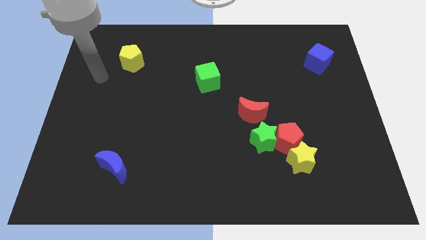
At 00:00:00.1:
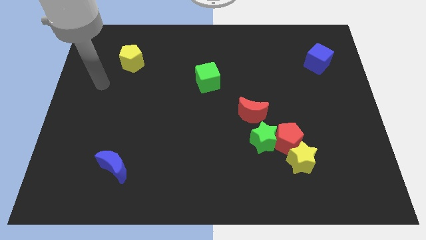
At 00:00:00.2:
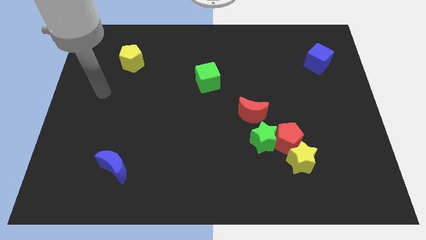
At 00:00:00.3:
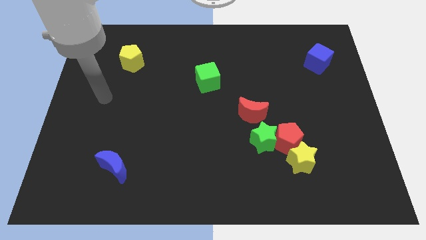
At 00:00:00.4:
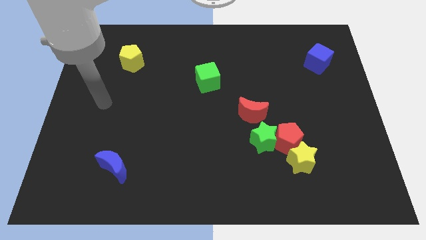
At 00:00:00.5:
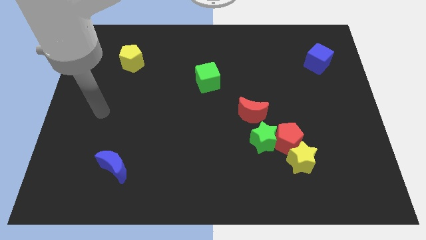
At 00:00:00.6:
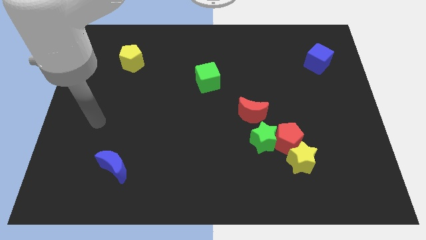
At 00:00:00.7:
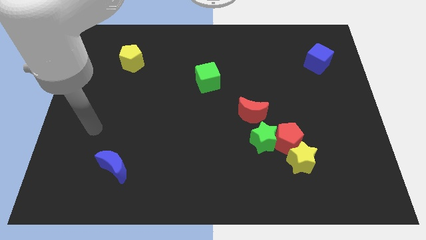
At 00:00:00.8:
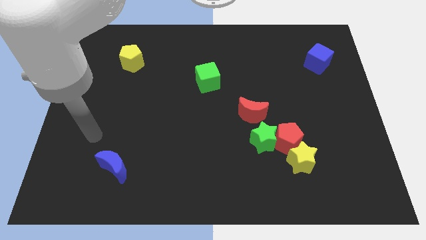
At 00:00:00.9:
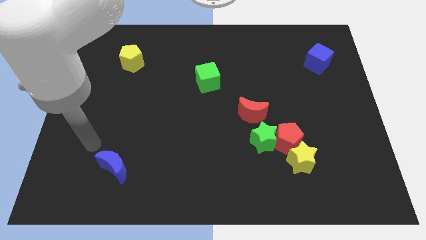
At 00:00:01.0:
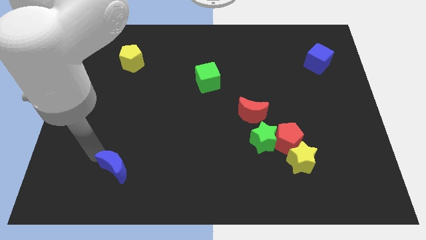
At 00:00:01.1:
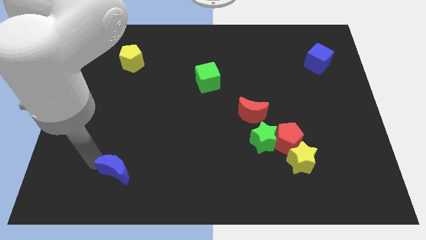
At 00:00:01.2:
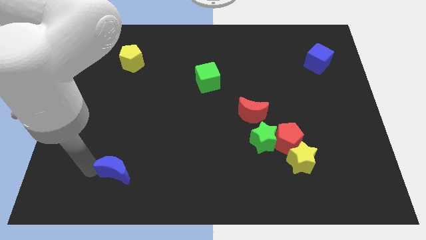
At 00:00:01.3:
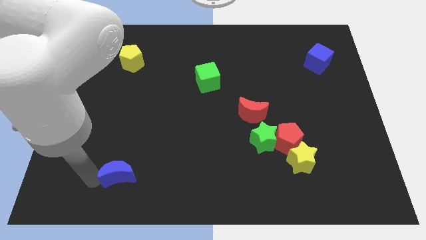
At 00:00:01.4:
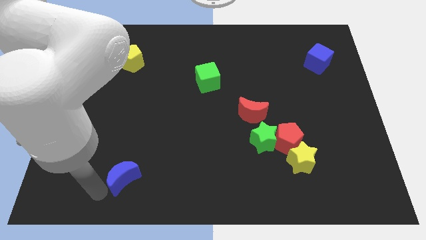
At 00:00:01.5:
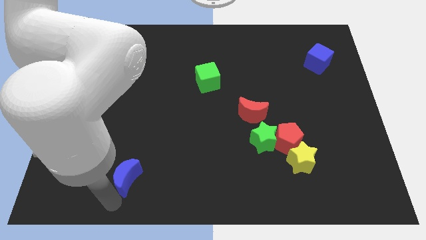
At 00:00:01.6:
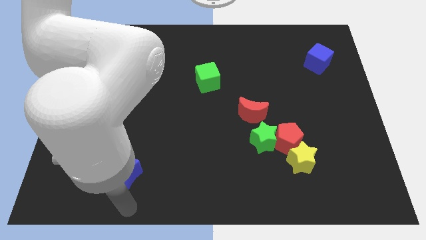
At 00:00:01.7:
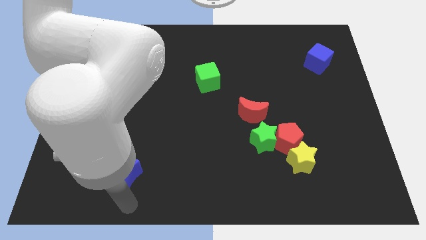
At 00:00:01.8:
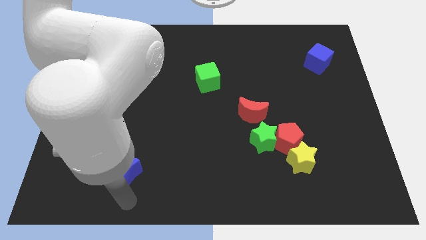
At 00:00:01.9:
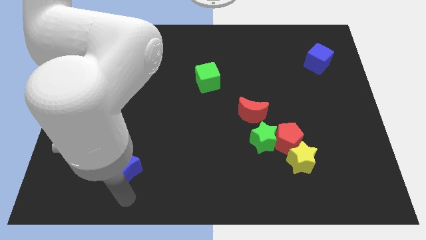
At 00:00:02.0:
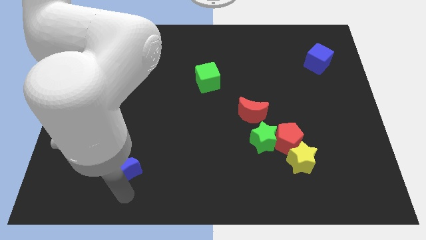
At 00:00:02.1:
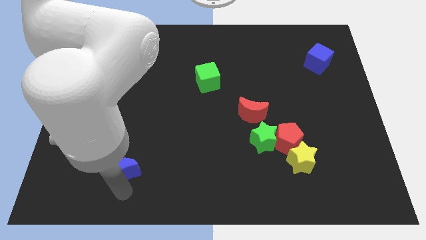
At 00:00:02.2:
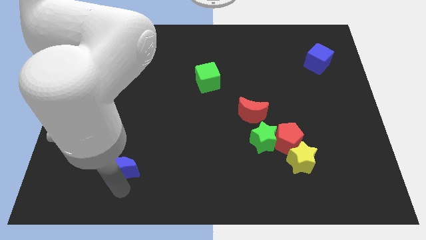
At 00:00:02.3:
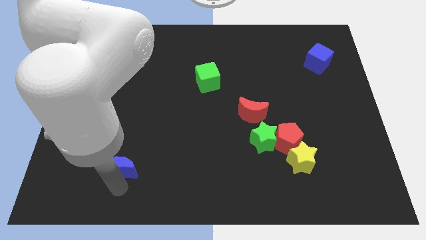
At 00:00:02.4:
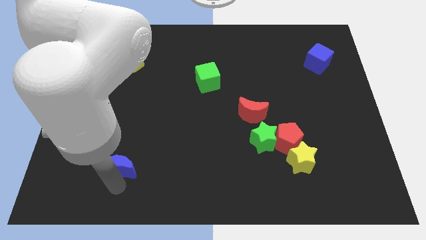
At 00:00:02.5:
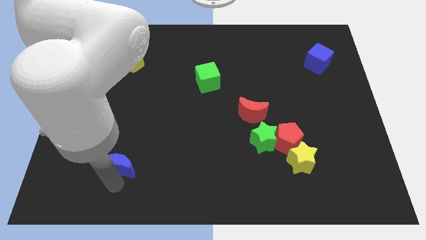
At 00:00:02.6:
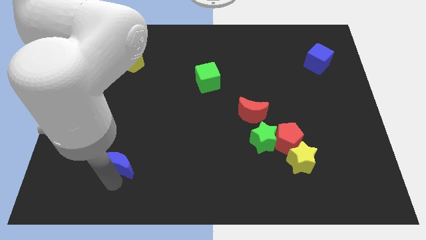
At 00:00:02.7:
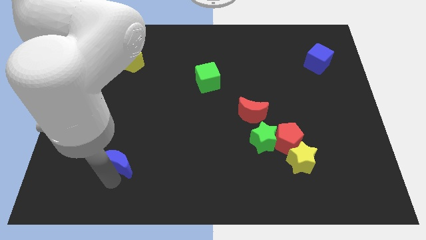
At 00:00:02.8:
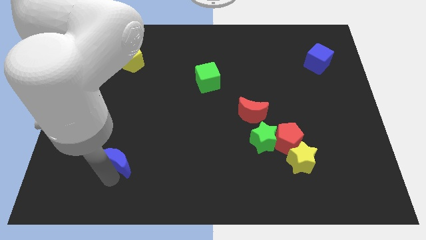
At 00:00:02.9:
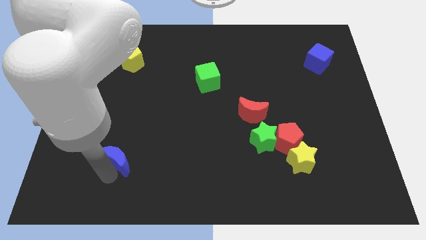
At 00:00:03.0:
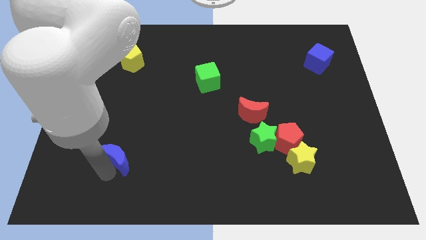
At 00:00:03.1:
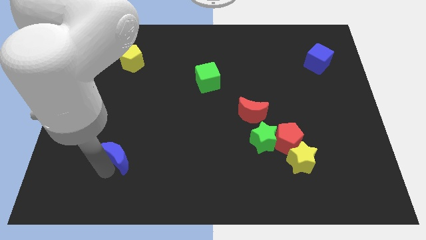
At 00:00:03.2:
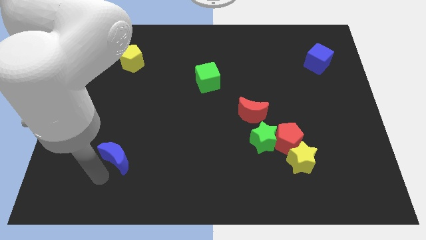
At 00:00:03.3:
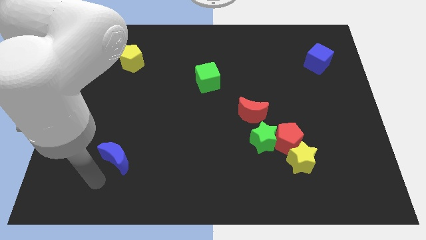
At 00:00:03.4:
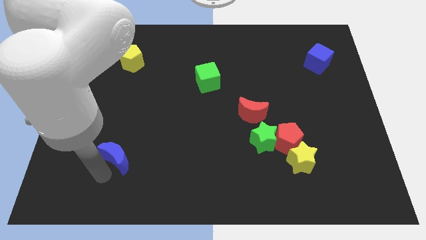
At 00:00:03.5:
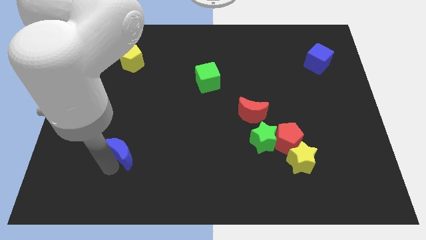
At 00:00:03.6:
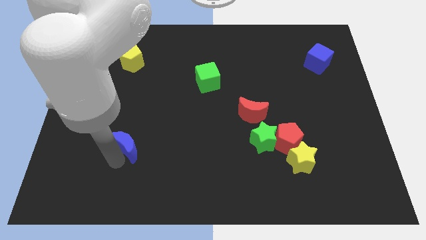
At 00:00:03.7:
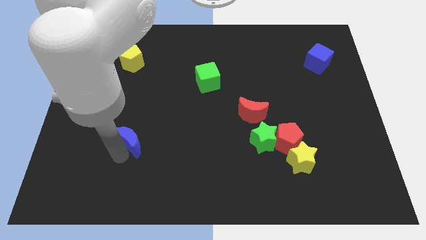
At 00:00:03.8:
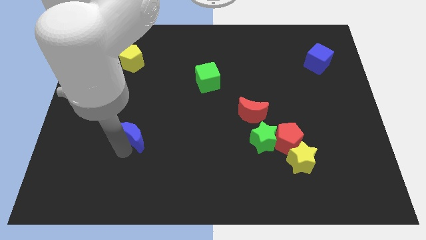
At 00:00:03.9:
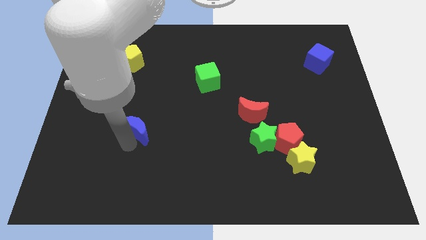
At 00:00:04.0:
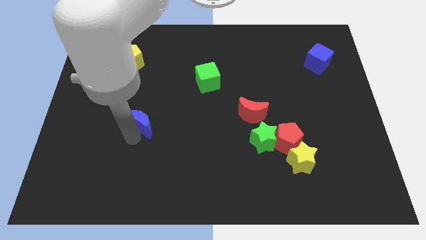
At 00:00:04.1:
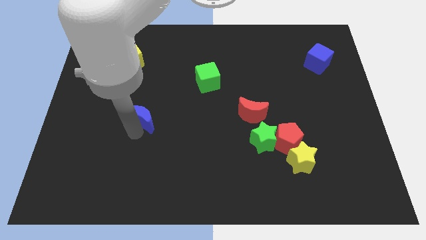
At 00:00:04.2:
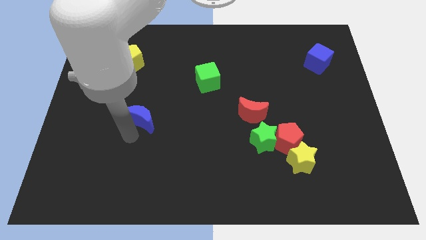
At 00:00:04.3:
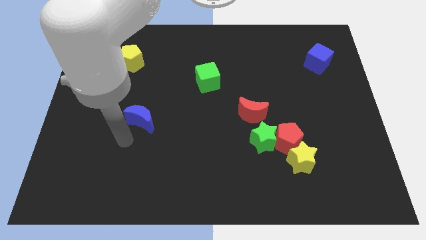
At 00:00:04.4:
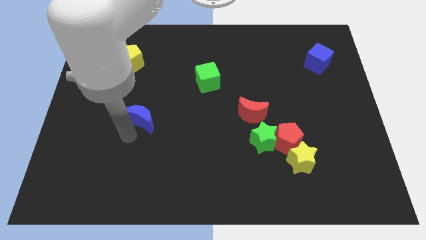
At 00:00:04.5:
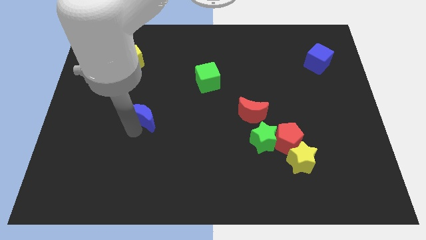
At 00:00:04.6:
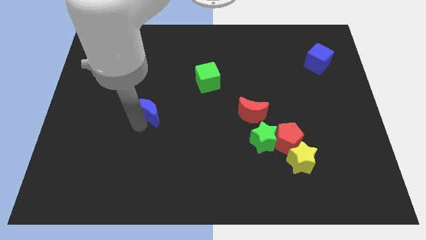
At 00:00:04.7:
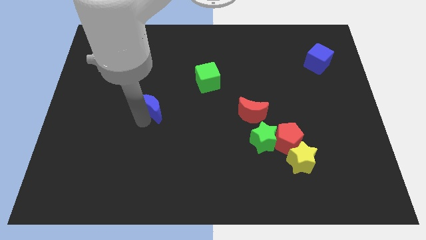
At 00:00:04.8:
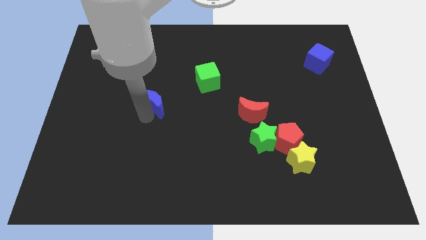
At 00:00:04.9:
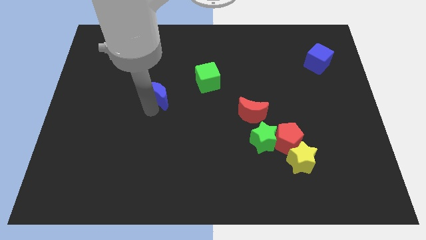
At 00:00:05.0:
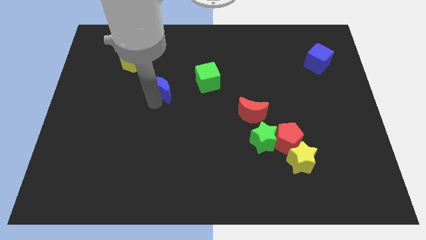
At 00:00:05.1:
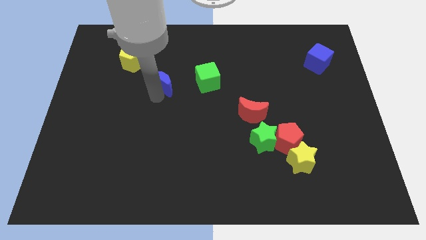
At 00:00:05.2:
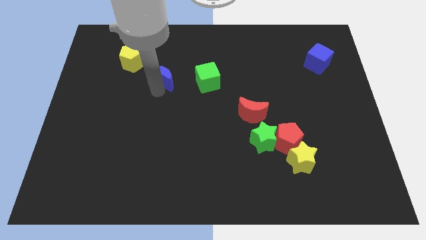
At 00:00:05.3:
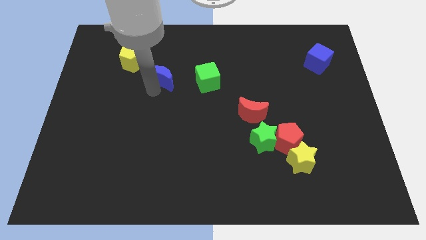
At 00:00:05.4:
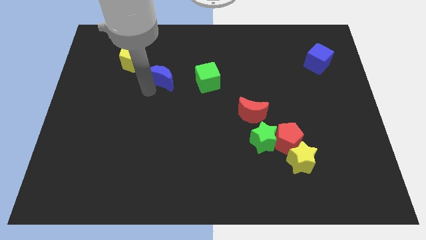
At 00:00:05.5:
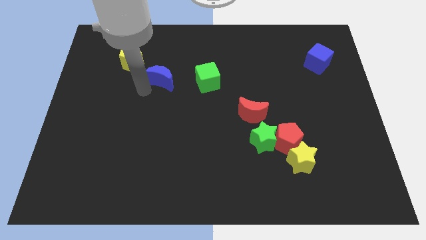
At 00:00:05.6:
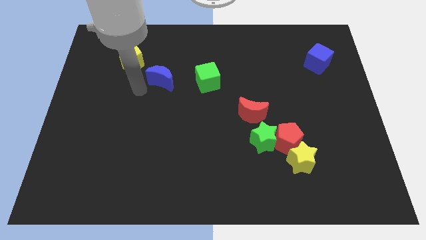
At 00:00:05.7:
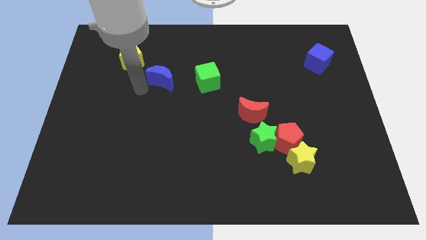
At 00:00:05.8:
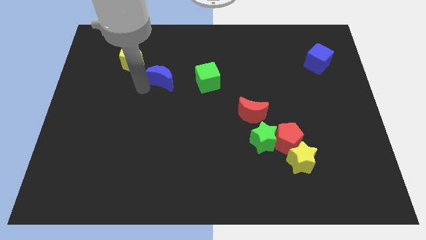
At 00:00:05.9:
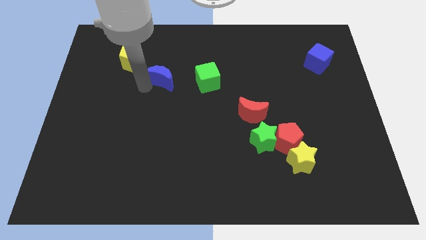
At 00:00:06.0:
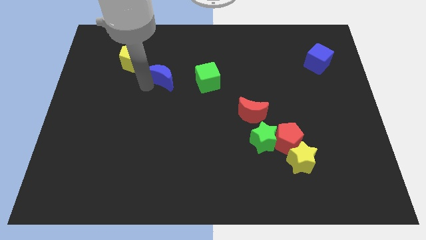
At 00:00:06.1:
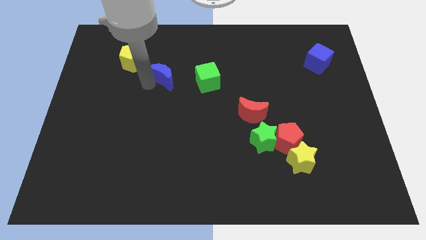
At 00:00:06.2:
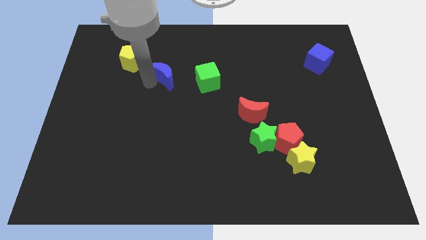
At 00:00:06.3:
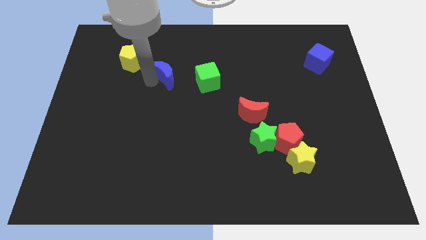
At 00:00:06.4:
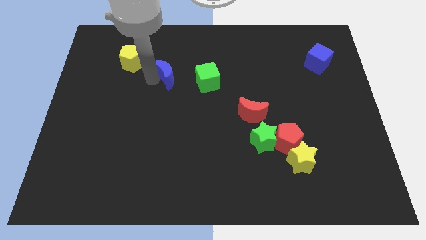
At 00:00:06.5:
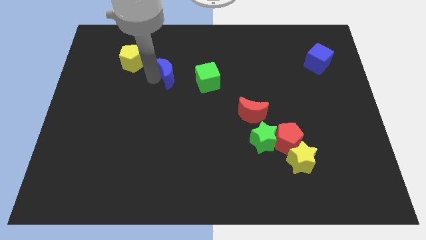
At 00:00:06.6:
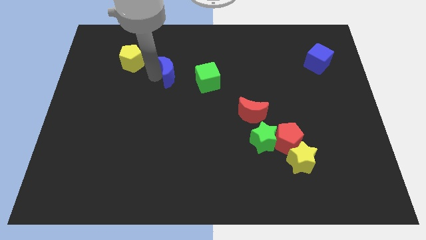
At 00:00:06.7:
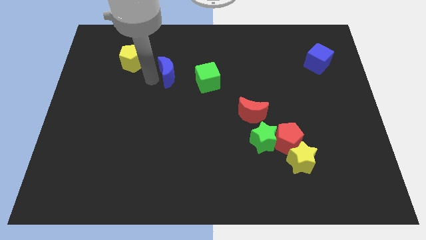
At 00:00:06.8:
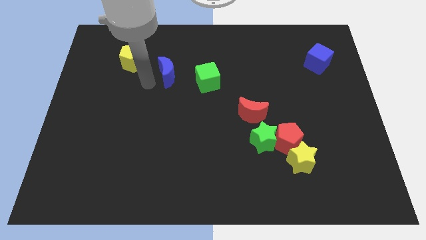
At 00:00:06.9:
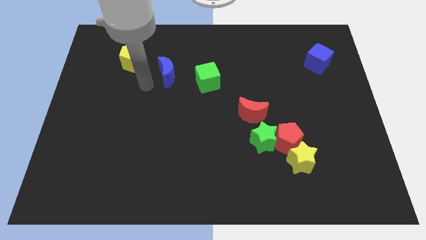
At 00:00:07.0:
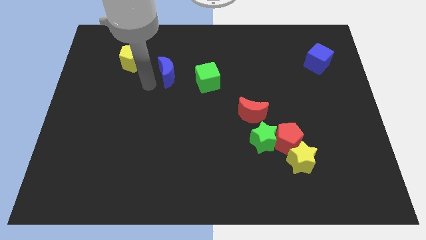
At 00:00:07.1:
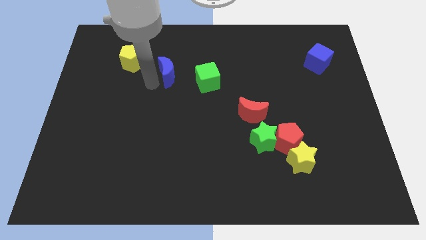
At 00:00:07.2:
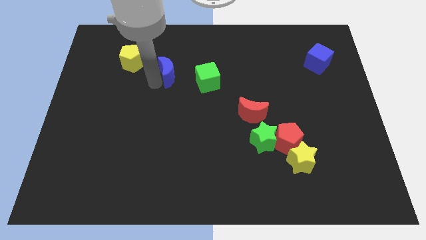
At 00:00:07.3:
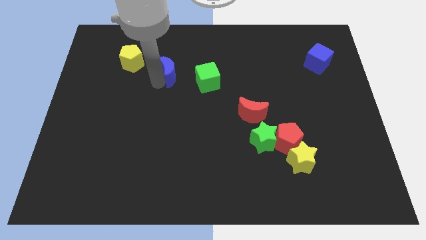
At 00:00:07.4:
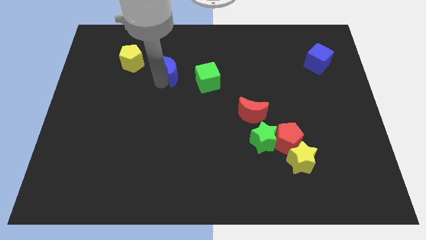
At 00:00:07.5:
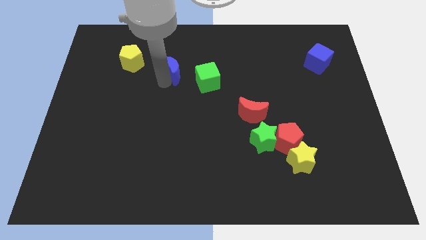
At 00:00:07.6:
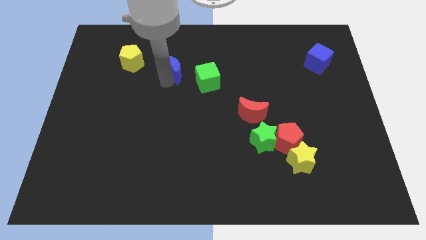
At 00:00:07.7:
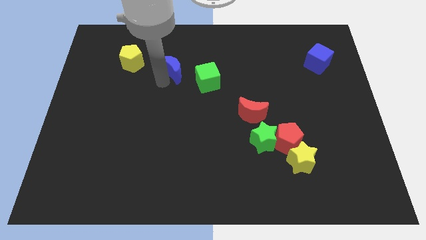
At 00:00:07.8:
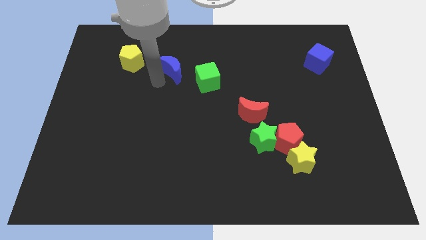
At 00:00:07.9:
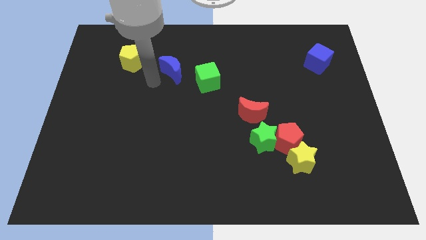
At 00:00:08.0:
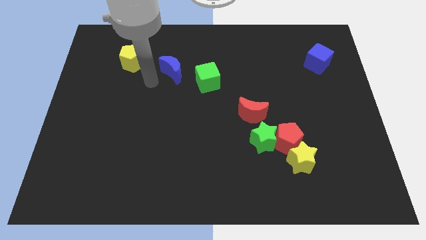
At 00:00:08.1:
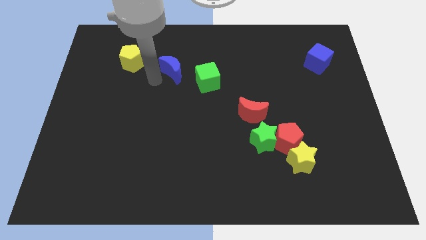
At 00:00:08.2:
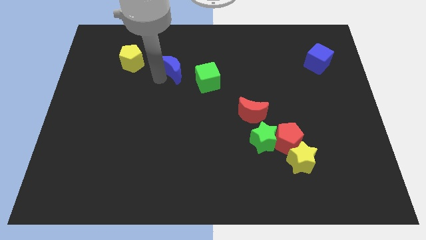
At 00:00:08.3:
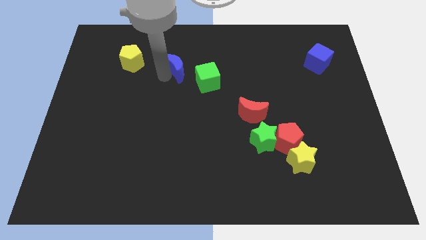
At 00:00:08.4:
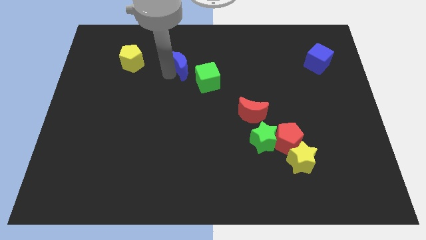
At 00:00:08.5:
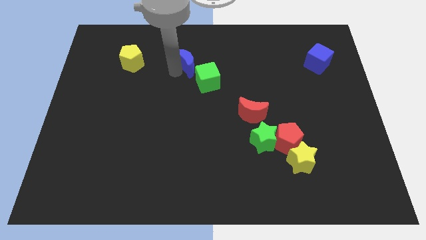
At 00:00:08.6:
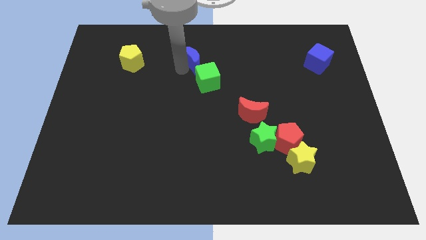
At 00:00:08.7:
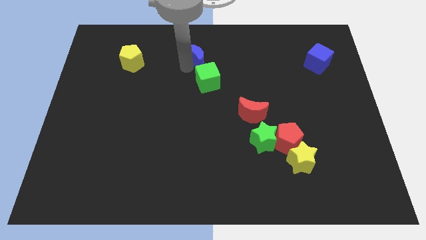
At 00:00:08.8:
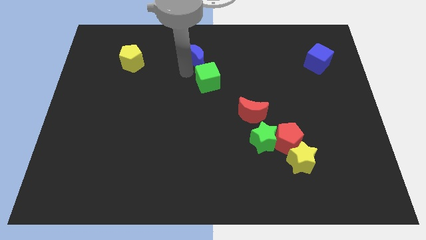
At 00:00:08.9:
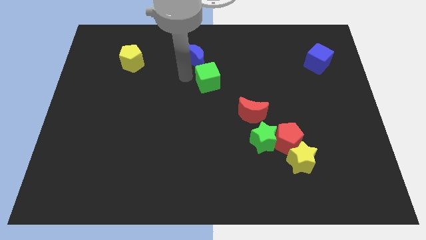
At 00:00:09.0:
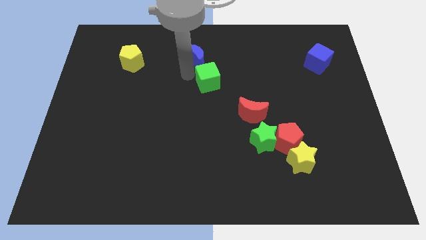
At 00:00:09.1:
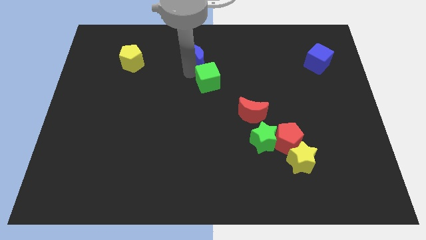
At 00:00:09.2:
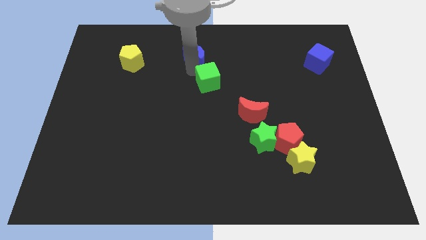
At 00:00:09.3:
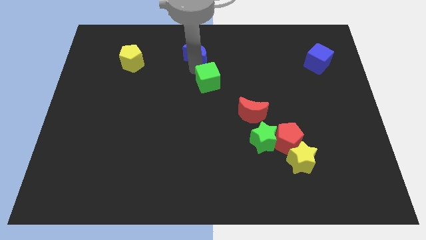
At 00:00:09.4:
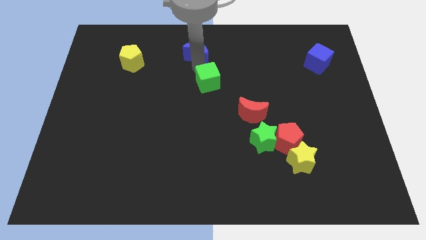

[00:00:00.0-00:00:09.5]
slide the blue moon to the towards your base
